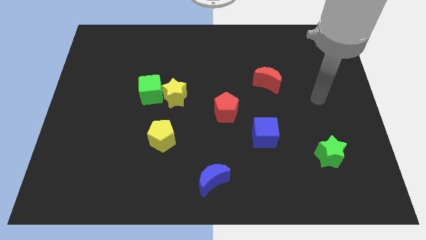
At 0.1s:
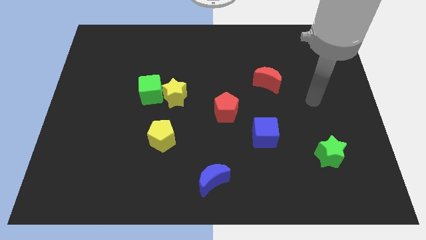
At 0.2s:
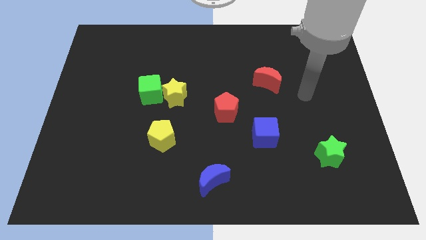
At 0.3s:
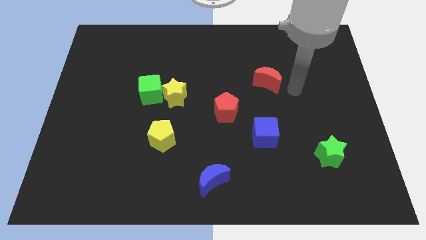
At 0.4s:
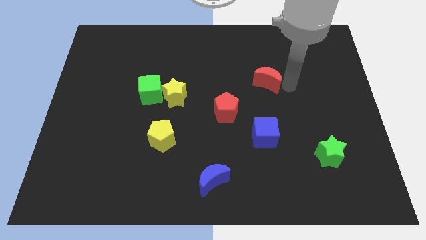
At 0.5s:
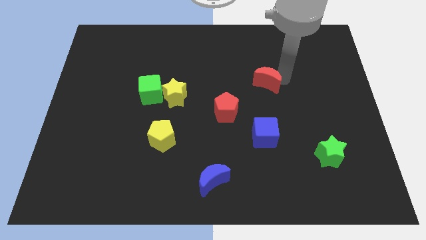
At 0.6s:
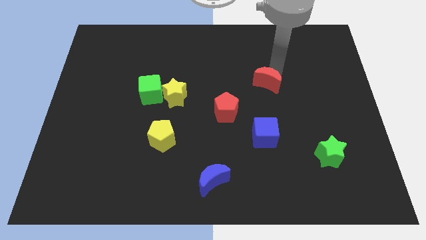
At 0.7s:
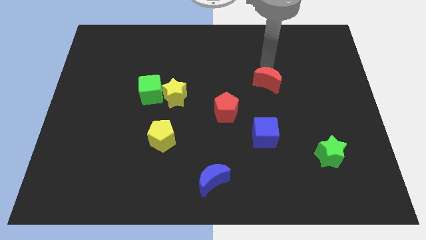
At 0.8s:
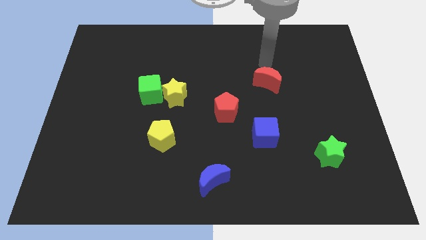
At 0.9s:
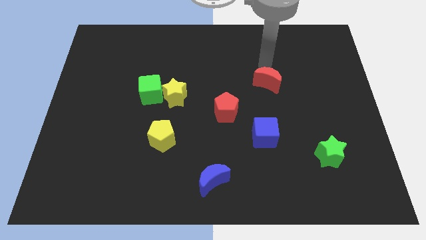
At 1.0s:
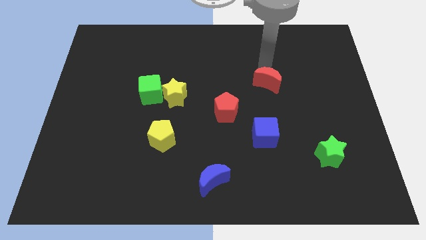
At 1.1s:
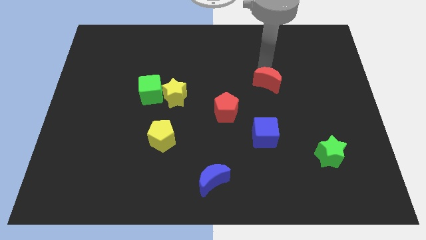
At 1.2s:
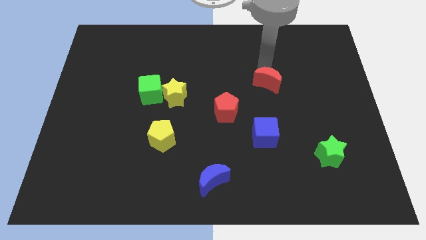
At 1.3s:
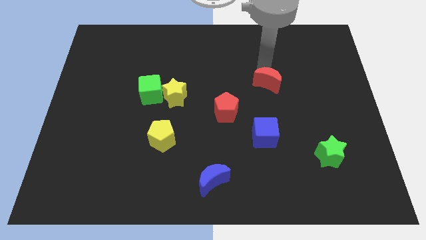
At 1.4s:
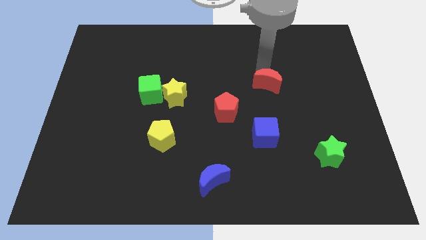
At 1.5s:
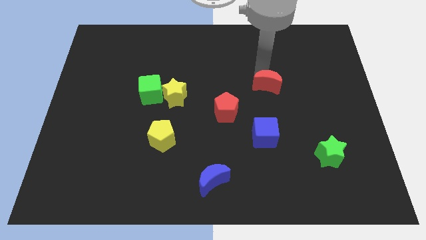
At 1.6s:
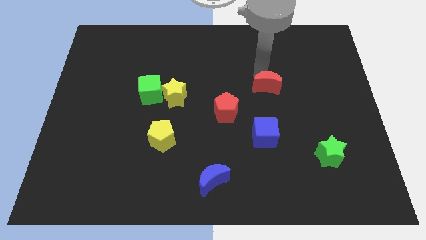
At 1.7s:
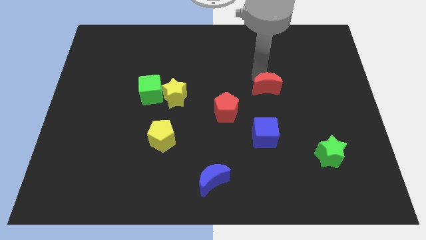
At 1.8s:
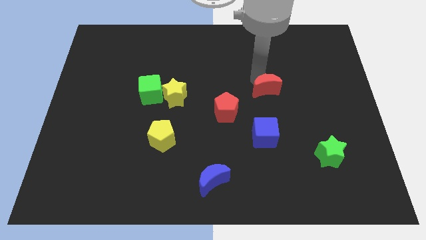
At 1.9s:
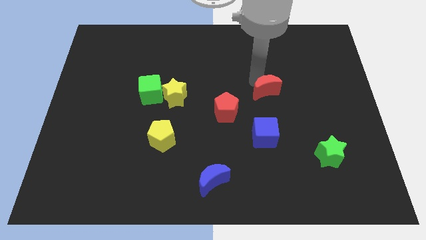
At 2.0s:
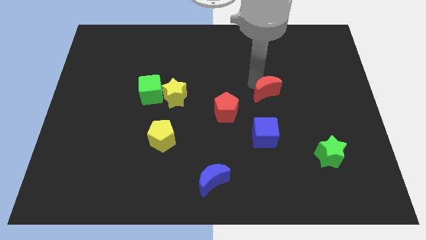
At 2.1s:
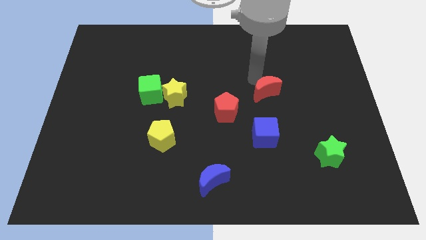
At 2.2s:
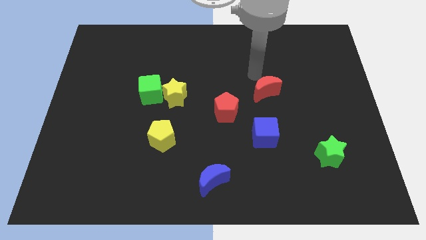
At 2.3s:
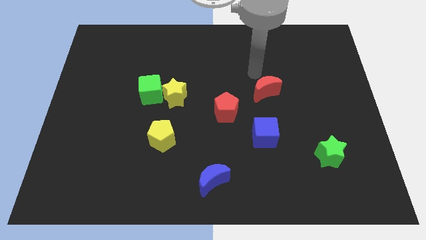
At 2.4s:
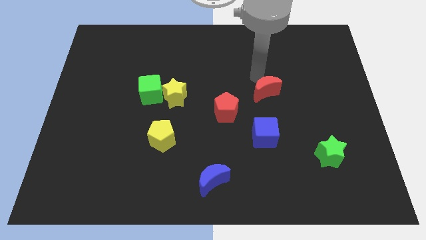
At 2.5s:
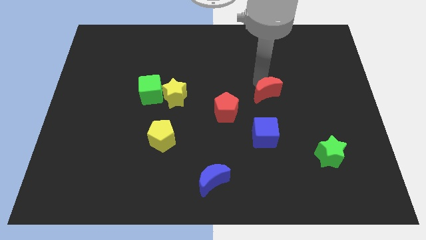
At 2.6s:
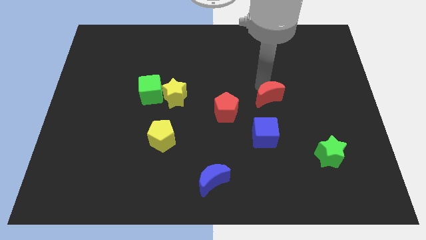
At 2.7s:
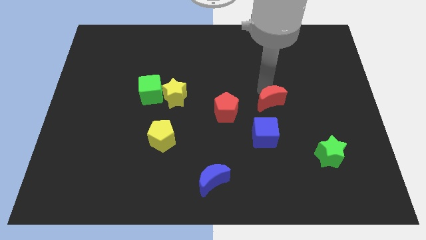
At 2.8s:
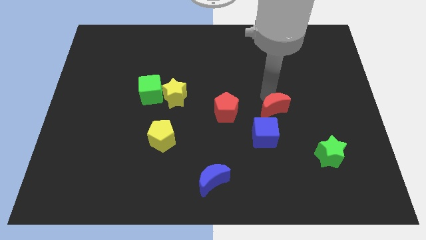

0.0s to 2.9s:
slightly move the red moon downwards

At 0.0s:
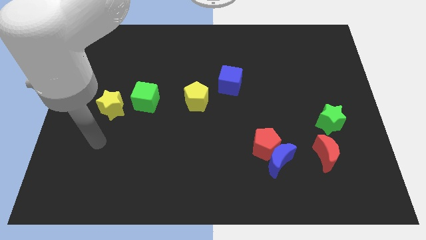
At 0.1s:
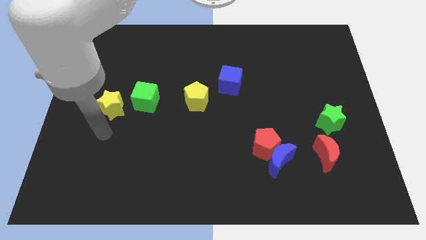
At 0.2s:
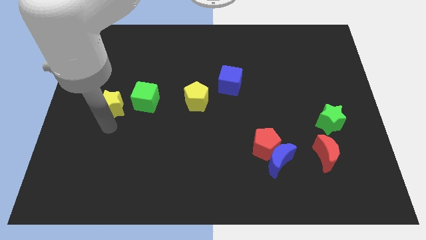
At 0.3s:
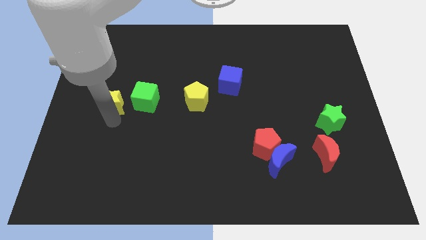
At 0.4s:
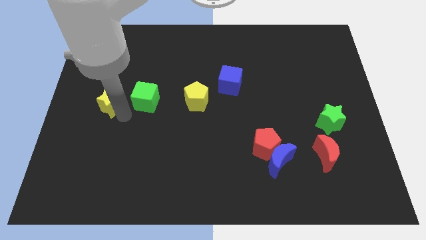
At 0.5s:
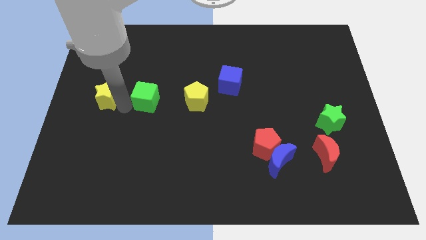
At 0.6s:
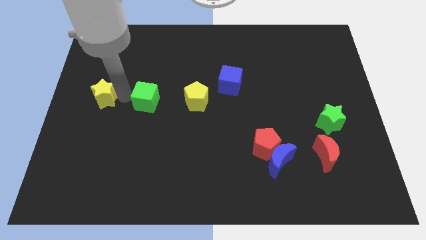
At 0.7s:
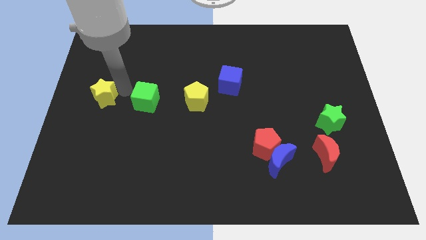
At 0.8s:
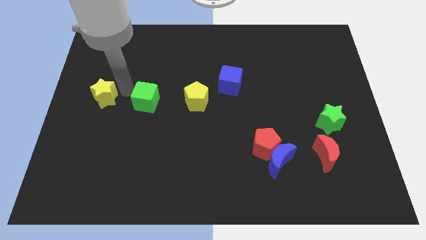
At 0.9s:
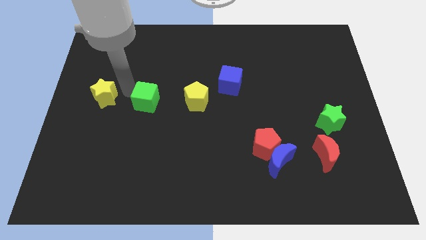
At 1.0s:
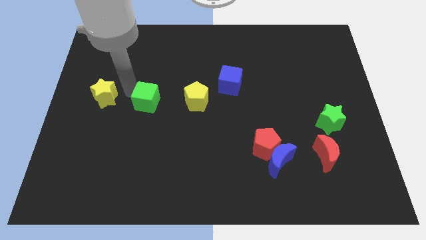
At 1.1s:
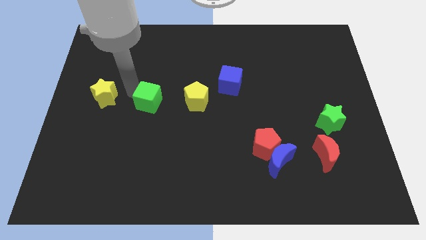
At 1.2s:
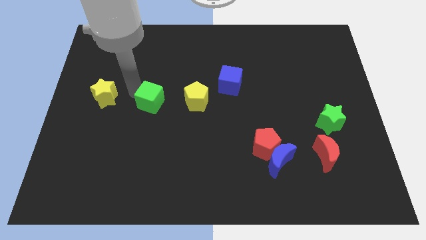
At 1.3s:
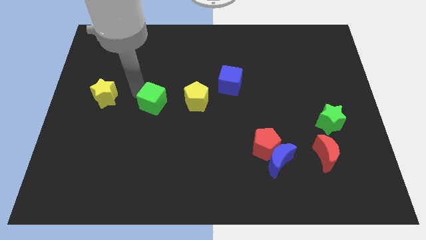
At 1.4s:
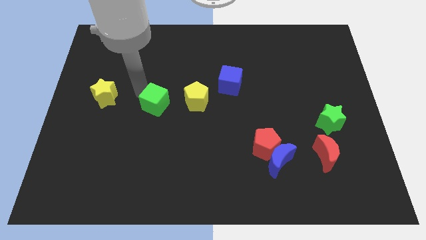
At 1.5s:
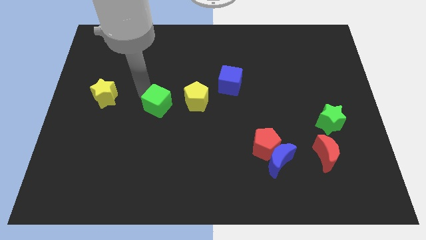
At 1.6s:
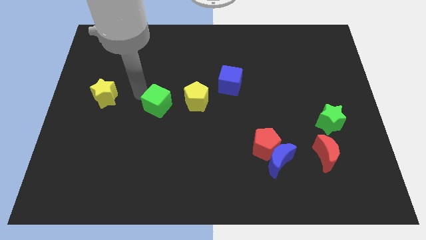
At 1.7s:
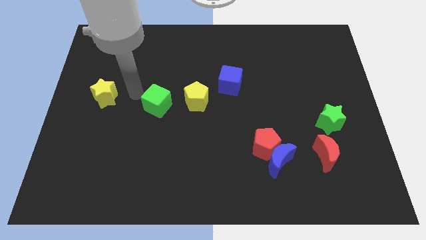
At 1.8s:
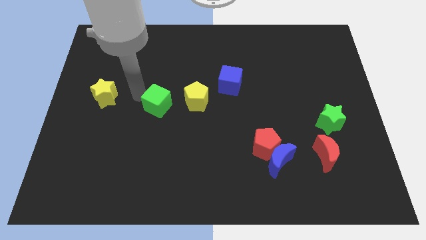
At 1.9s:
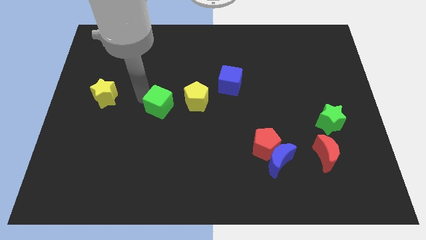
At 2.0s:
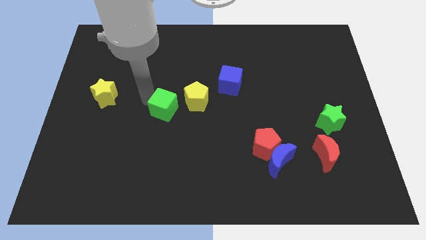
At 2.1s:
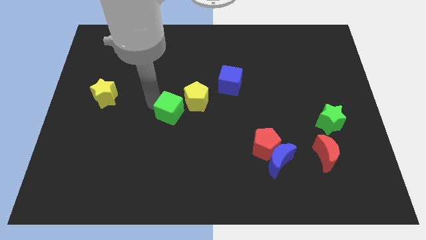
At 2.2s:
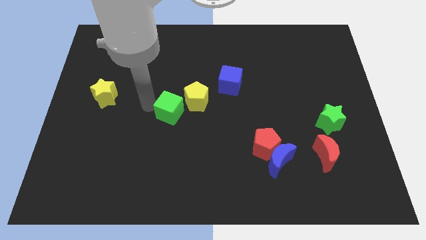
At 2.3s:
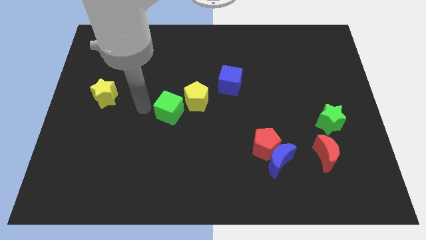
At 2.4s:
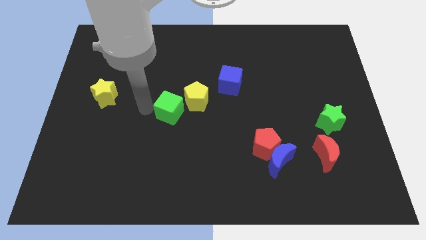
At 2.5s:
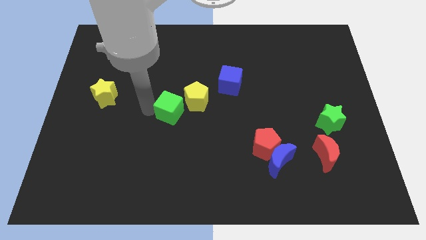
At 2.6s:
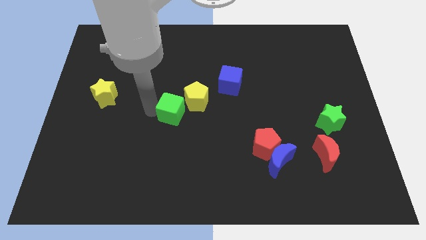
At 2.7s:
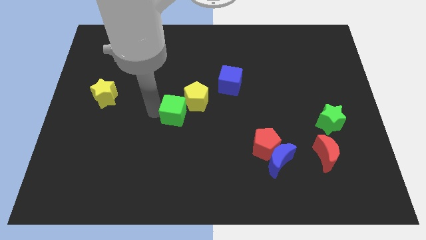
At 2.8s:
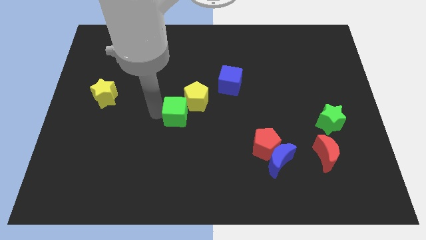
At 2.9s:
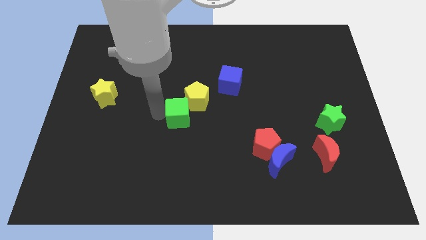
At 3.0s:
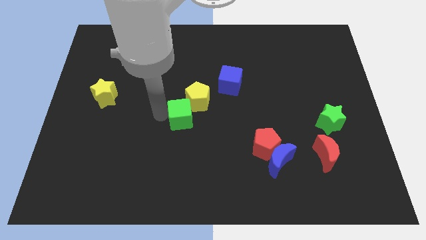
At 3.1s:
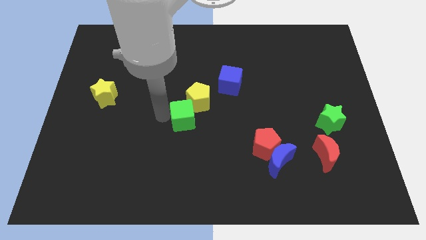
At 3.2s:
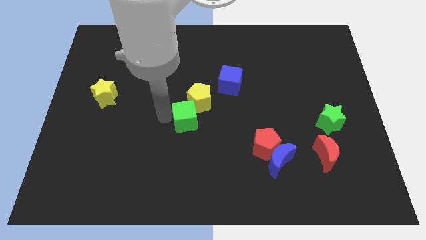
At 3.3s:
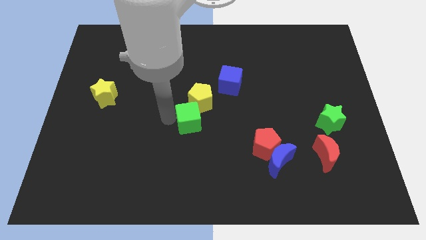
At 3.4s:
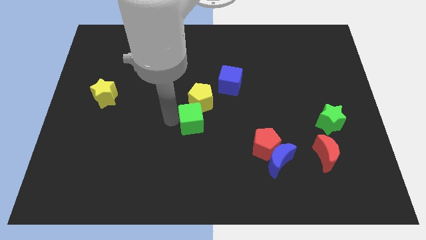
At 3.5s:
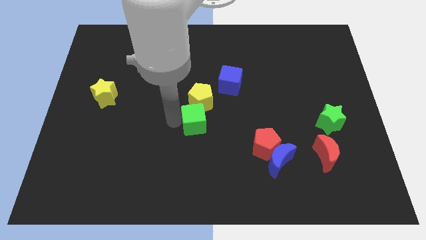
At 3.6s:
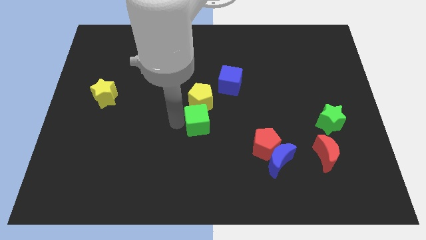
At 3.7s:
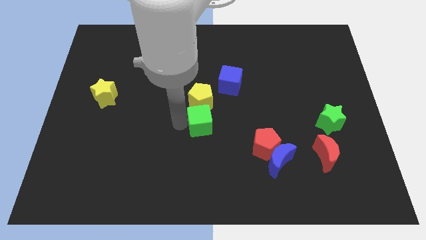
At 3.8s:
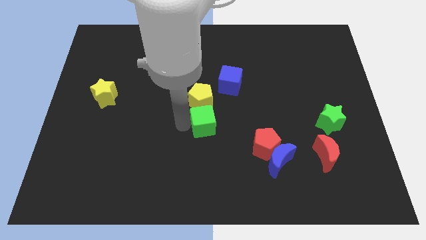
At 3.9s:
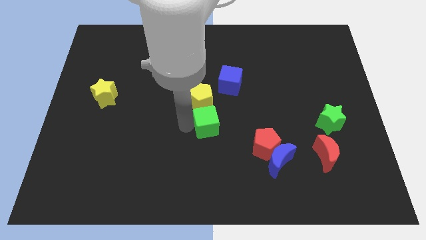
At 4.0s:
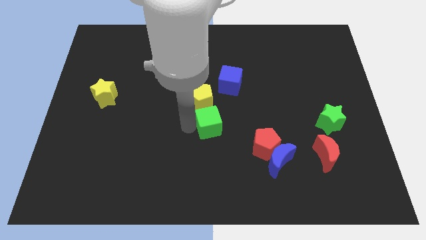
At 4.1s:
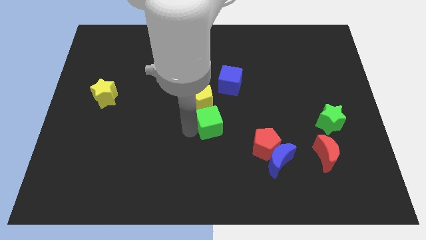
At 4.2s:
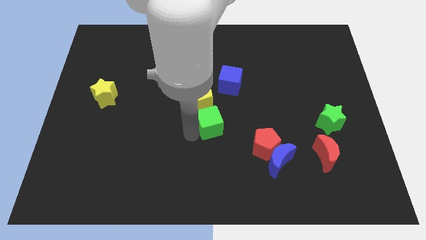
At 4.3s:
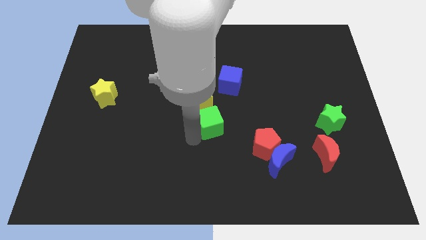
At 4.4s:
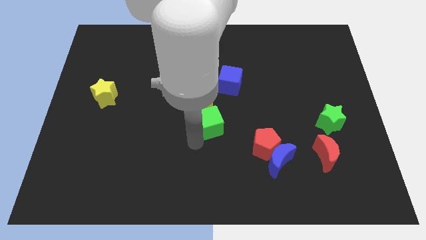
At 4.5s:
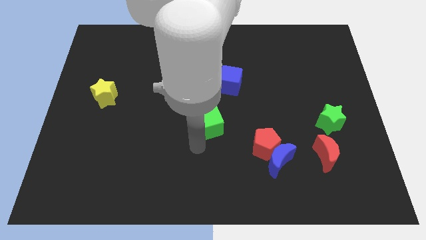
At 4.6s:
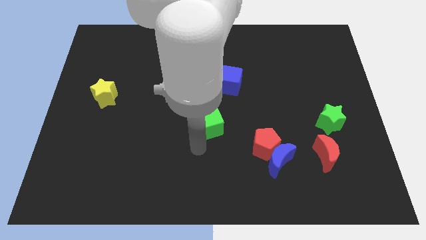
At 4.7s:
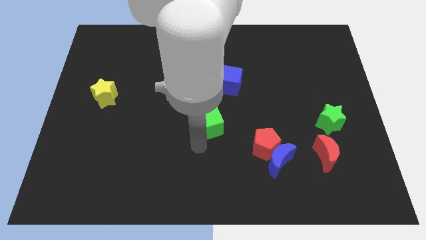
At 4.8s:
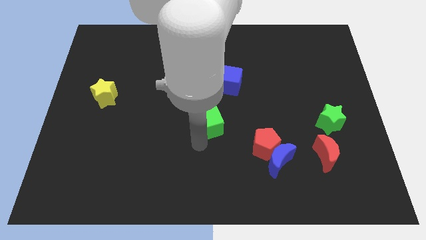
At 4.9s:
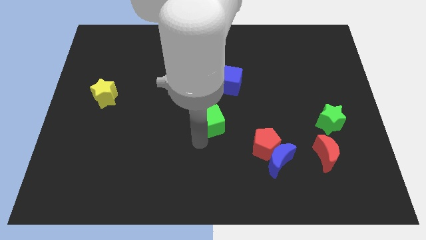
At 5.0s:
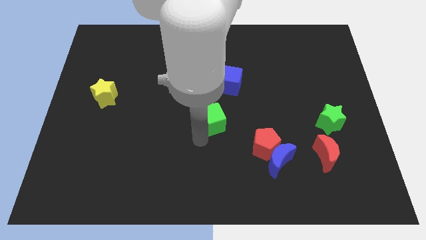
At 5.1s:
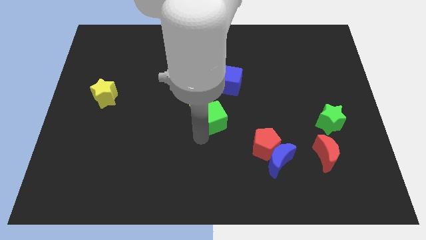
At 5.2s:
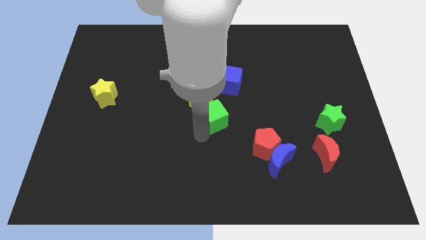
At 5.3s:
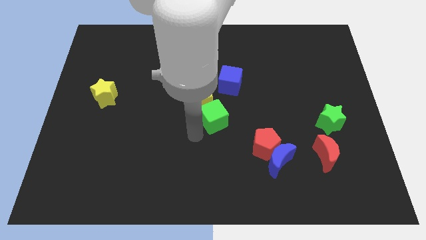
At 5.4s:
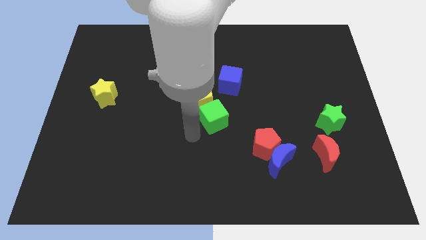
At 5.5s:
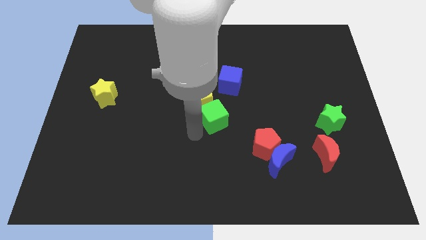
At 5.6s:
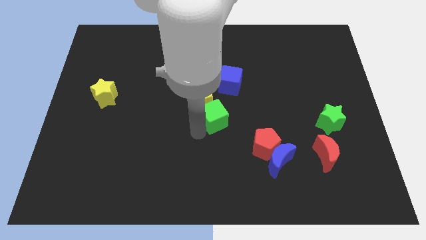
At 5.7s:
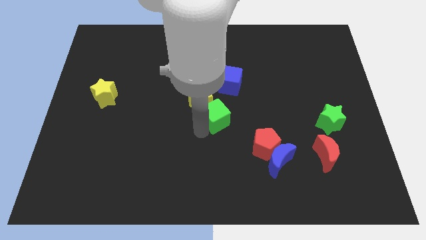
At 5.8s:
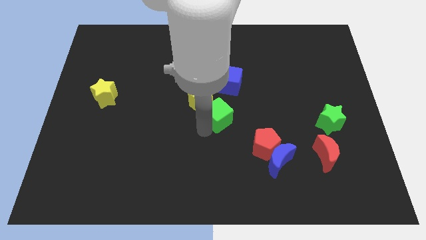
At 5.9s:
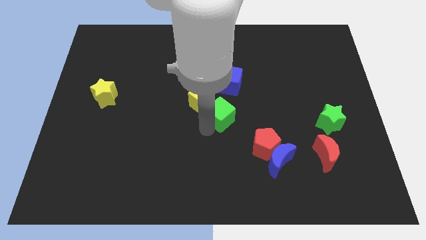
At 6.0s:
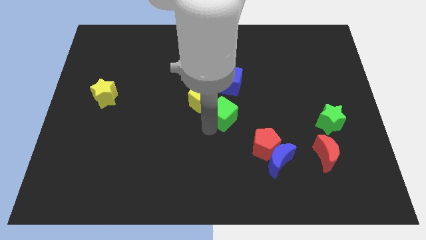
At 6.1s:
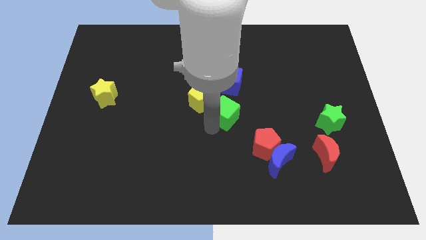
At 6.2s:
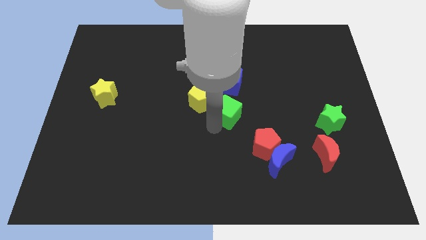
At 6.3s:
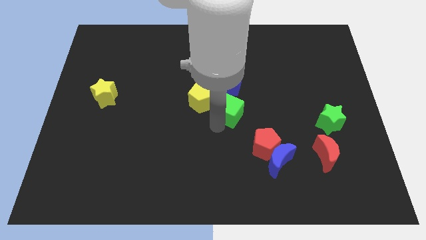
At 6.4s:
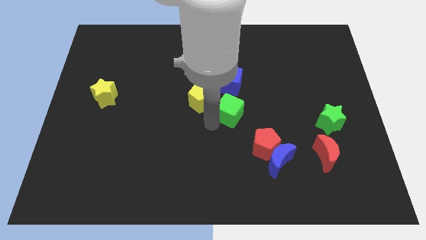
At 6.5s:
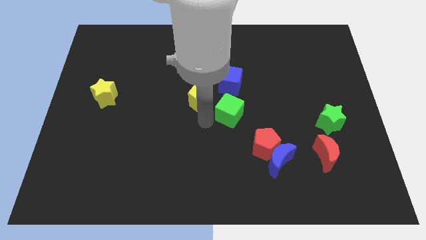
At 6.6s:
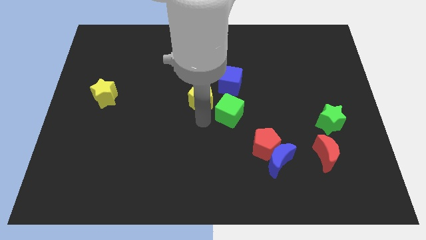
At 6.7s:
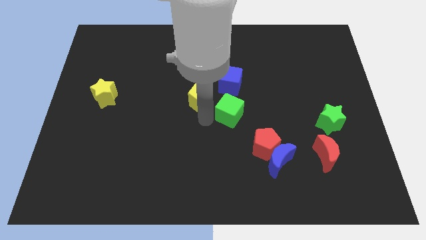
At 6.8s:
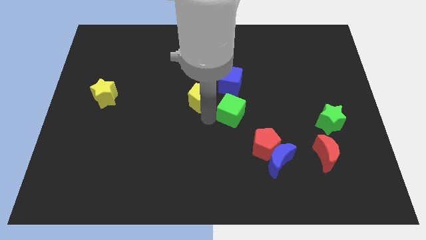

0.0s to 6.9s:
move the green cube right
